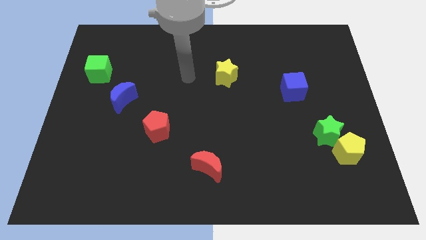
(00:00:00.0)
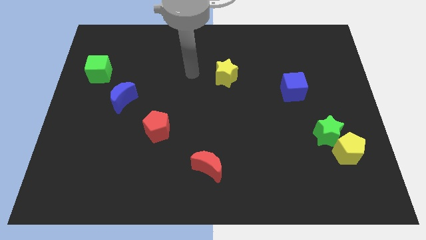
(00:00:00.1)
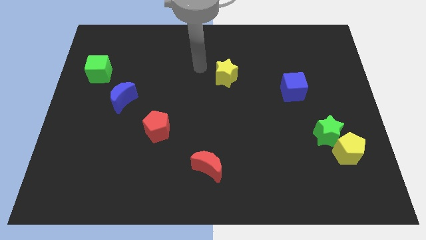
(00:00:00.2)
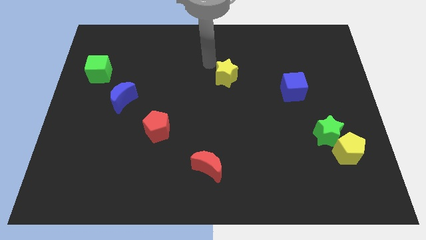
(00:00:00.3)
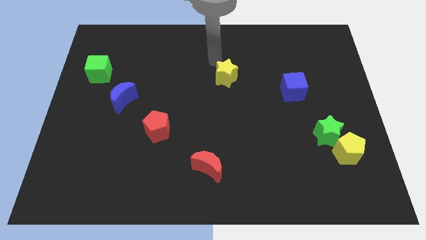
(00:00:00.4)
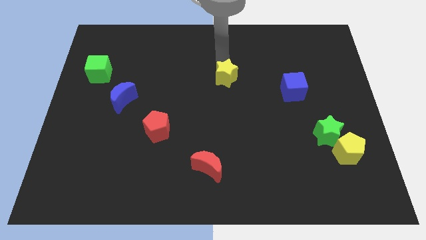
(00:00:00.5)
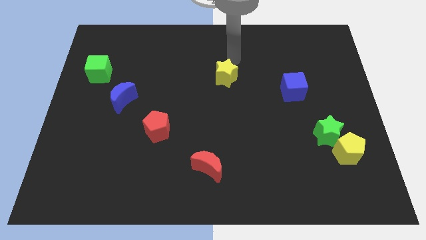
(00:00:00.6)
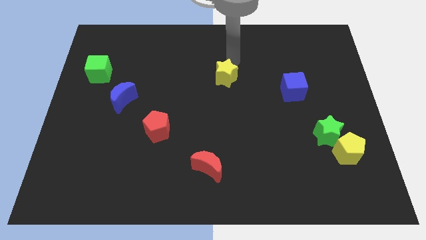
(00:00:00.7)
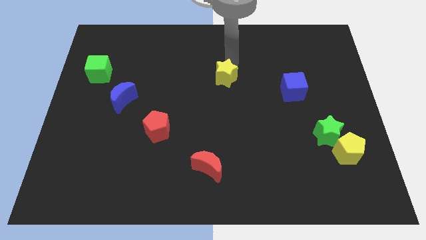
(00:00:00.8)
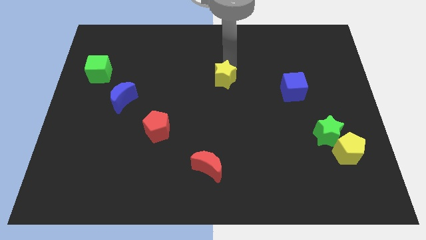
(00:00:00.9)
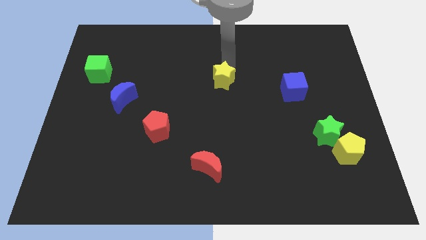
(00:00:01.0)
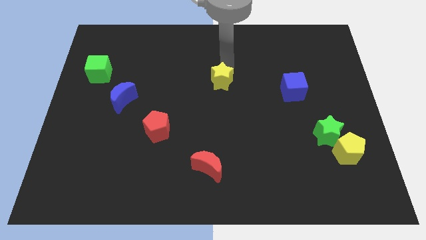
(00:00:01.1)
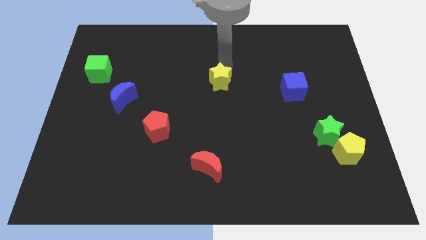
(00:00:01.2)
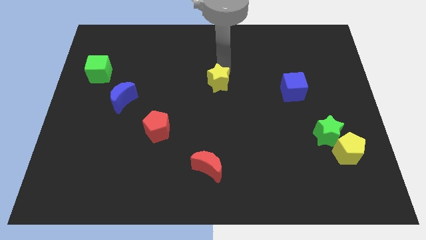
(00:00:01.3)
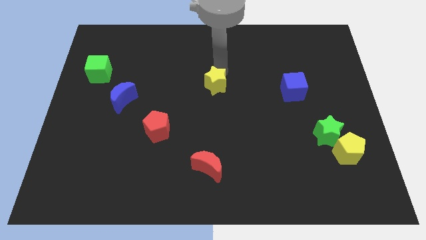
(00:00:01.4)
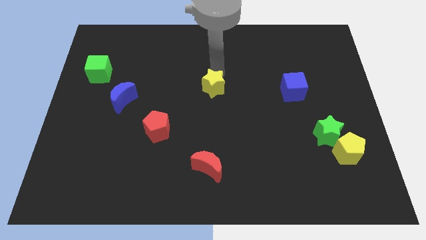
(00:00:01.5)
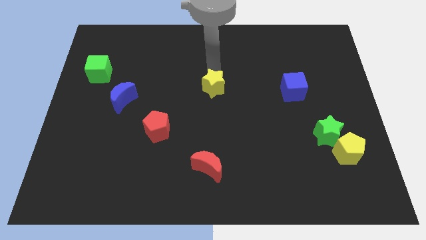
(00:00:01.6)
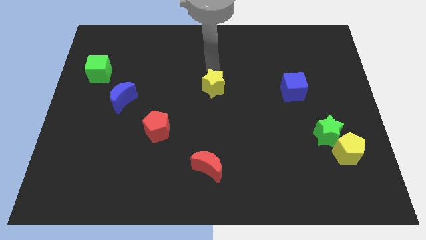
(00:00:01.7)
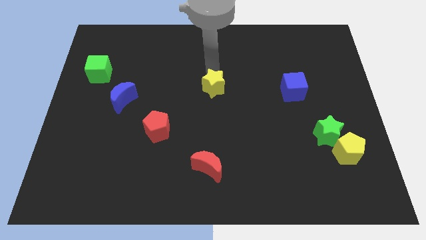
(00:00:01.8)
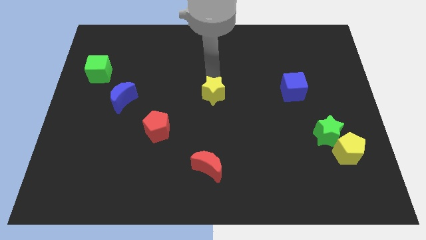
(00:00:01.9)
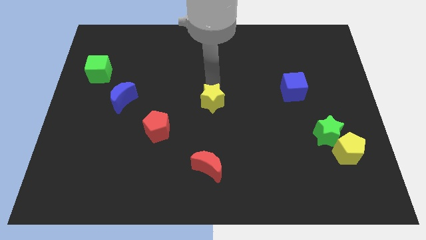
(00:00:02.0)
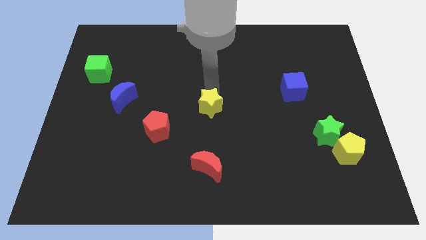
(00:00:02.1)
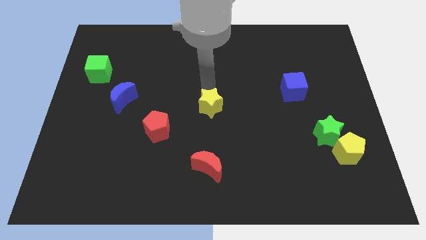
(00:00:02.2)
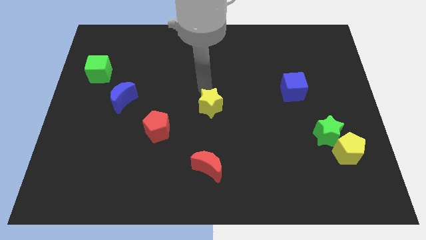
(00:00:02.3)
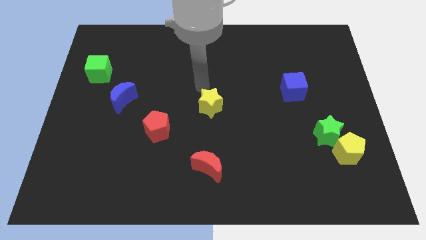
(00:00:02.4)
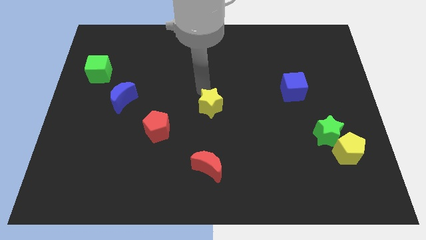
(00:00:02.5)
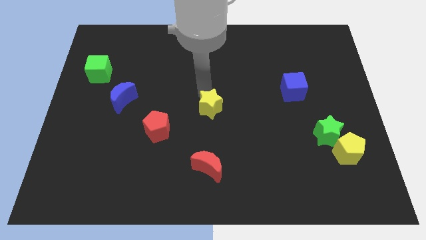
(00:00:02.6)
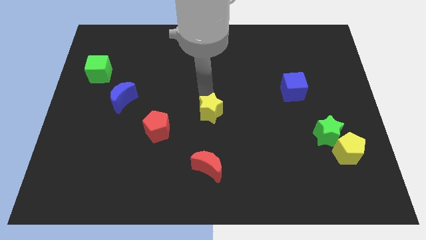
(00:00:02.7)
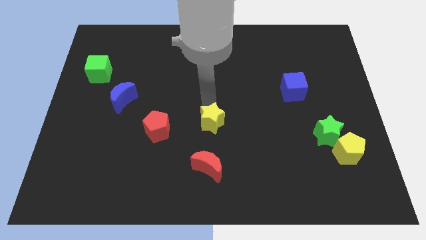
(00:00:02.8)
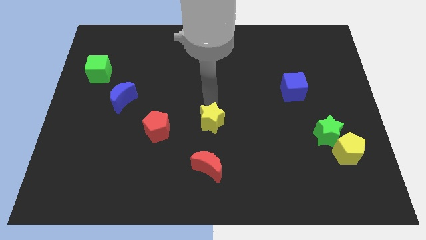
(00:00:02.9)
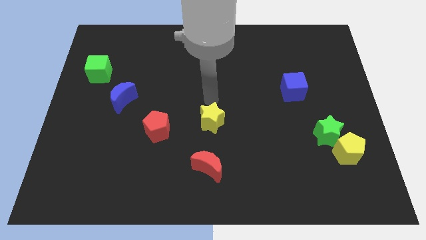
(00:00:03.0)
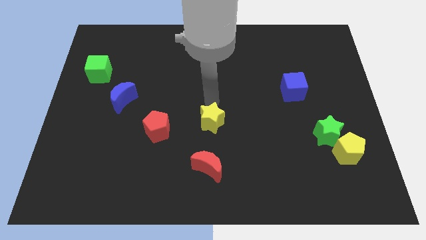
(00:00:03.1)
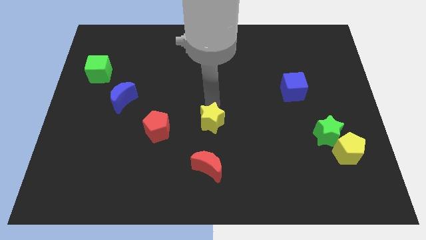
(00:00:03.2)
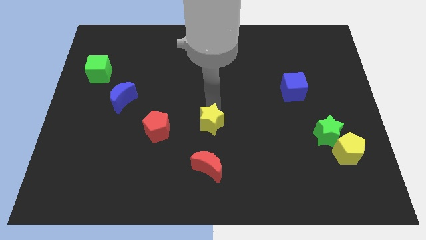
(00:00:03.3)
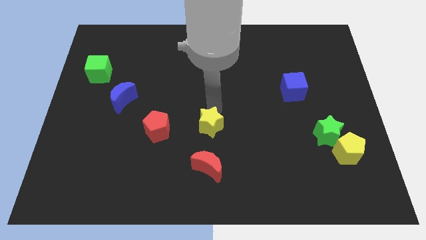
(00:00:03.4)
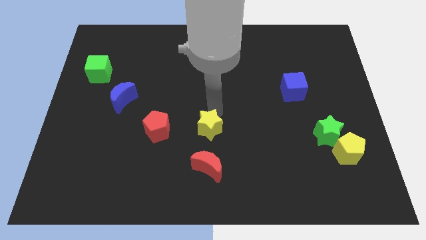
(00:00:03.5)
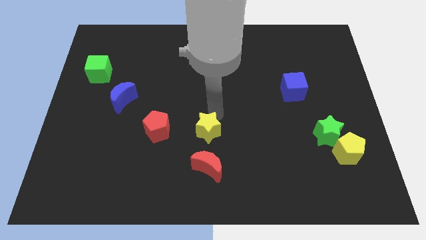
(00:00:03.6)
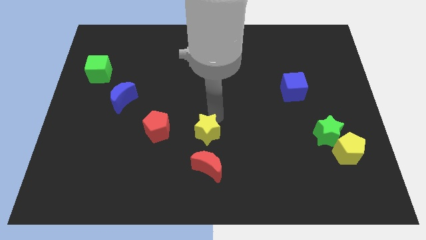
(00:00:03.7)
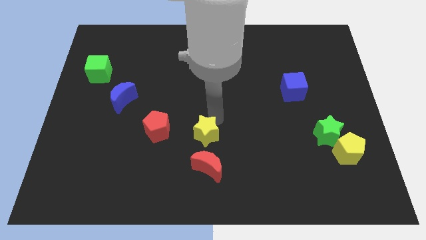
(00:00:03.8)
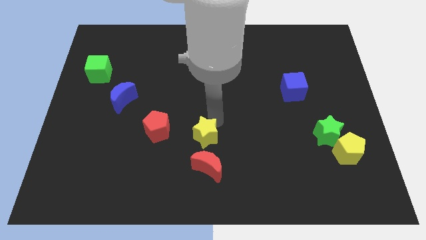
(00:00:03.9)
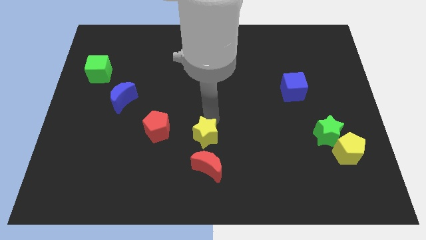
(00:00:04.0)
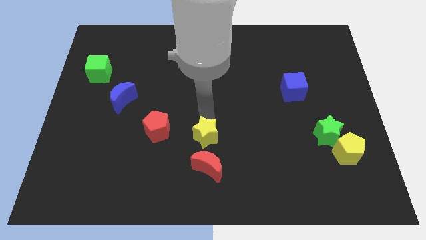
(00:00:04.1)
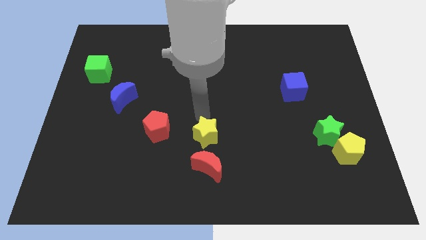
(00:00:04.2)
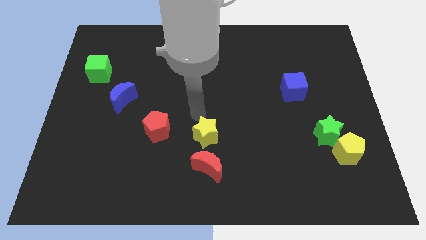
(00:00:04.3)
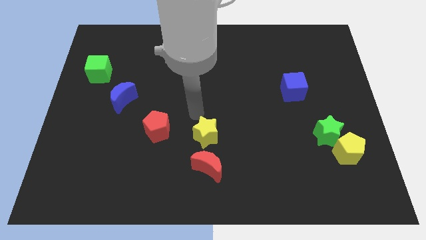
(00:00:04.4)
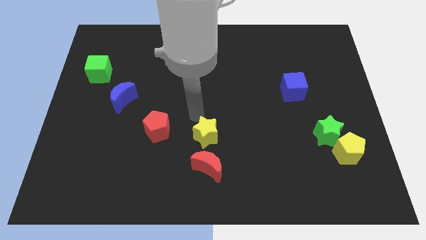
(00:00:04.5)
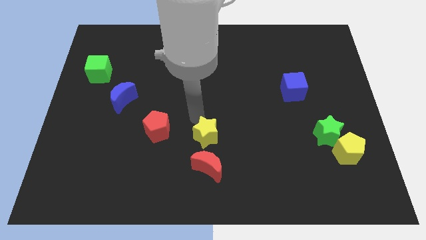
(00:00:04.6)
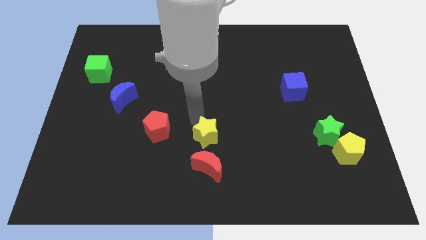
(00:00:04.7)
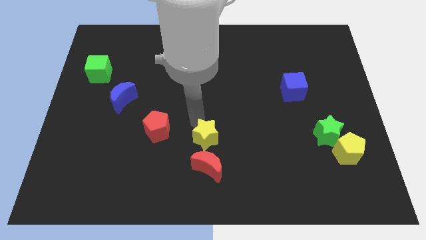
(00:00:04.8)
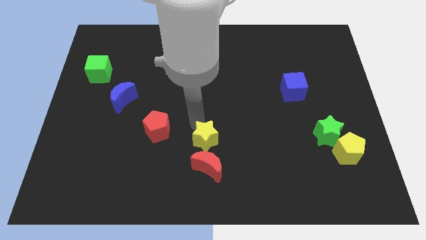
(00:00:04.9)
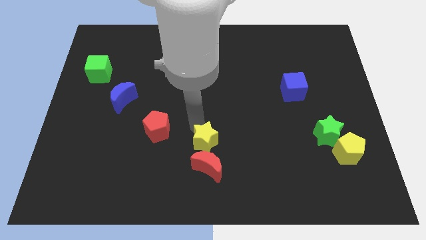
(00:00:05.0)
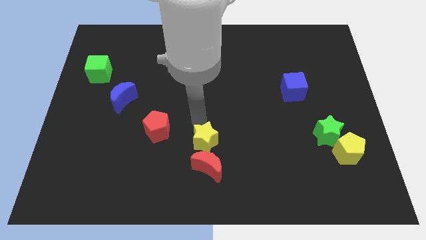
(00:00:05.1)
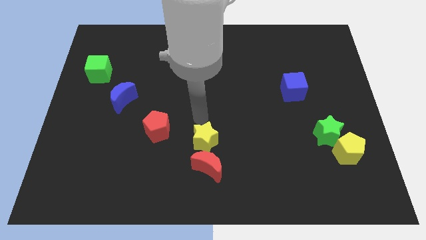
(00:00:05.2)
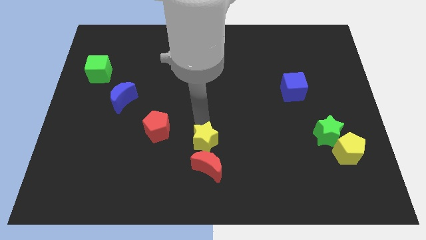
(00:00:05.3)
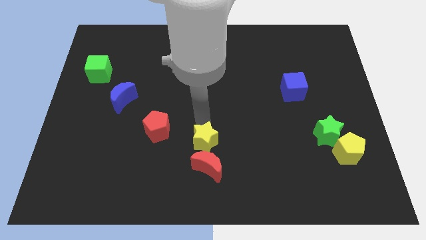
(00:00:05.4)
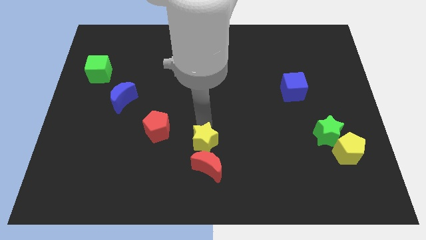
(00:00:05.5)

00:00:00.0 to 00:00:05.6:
put the yellow star towards the red moon

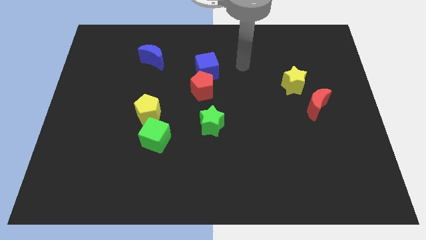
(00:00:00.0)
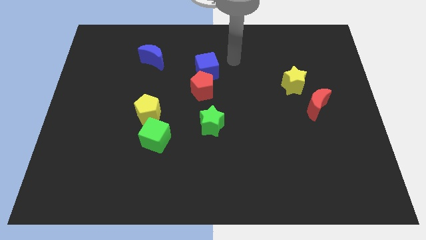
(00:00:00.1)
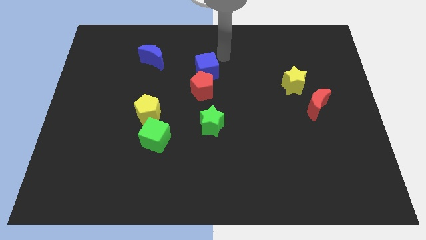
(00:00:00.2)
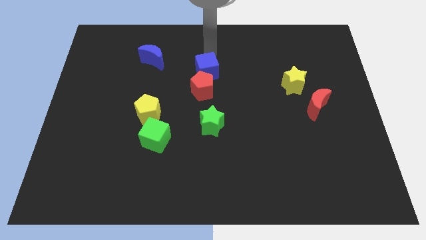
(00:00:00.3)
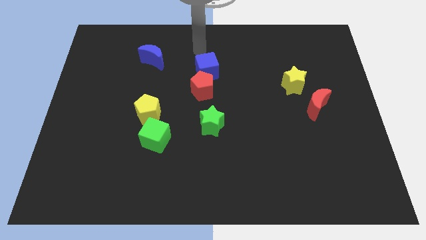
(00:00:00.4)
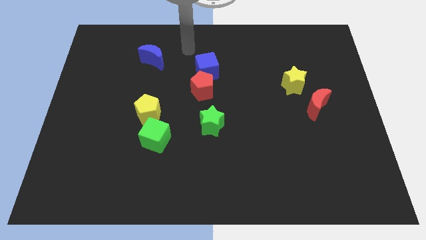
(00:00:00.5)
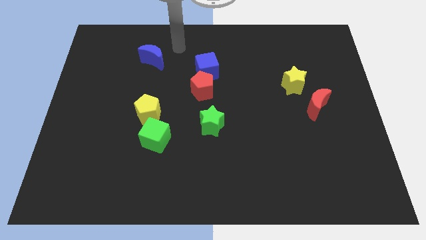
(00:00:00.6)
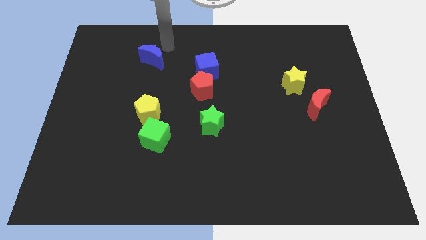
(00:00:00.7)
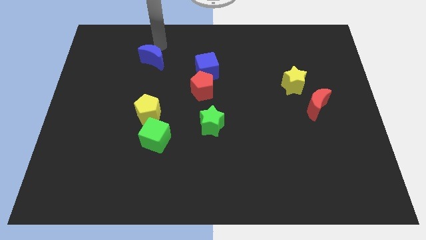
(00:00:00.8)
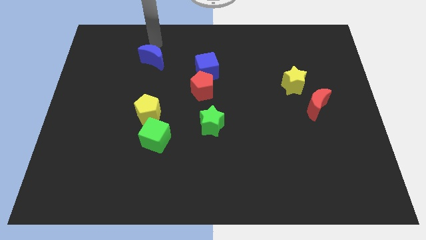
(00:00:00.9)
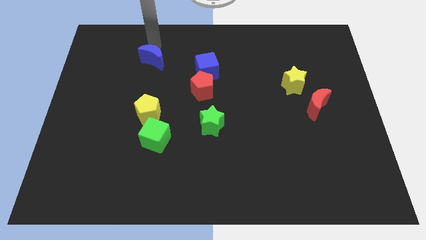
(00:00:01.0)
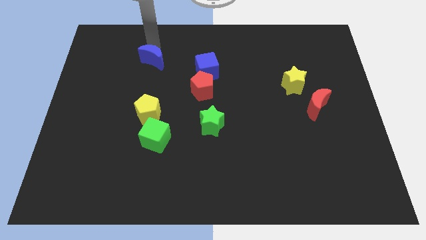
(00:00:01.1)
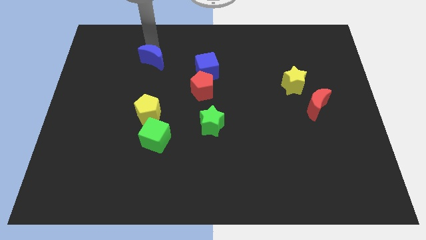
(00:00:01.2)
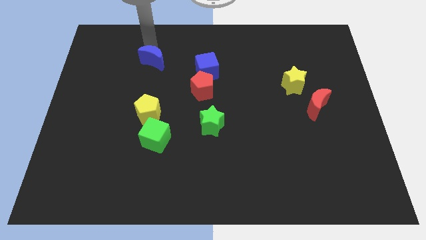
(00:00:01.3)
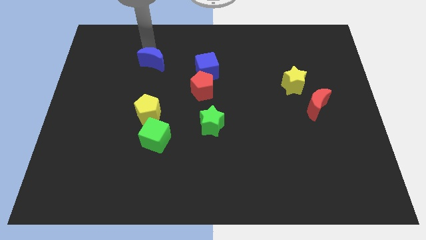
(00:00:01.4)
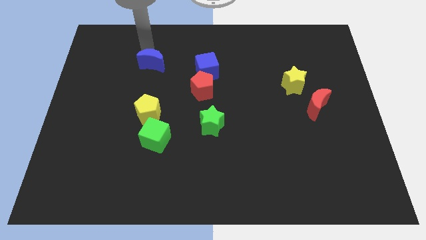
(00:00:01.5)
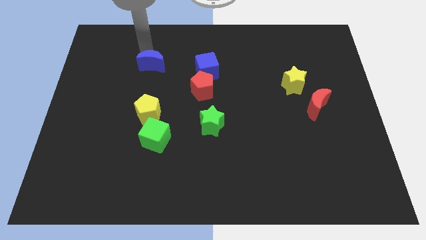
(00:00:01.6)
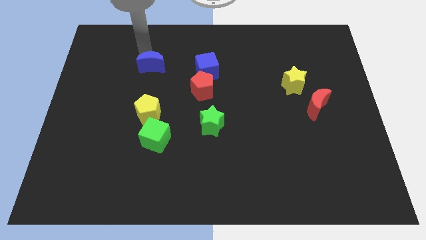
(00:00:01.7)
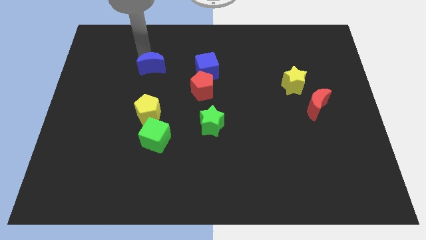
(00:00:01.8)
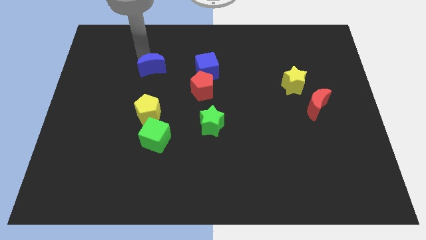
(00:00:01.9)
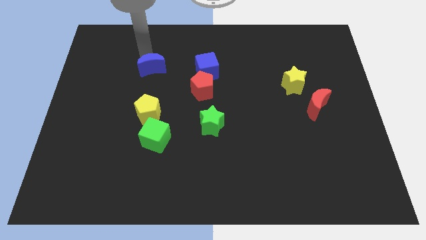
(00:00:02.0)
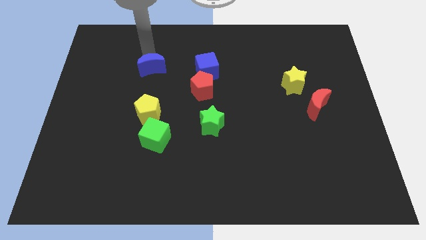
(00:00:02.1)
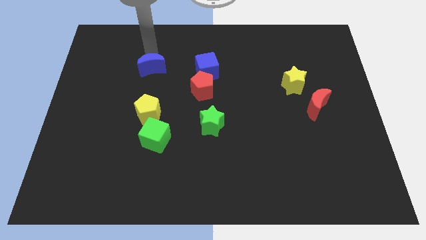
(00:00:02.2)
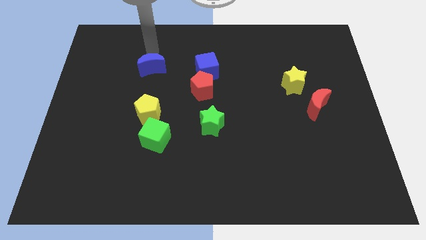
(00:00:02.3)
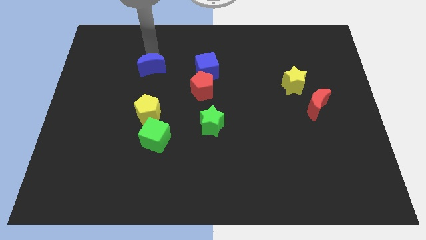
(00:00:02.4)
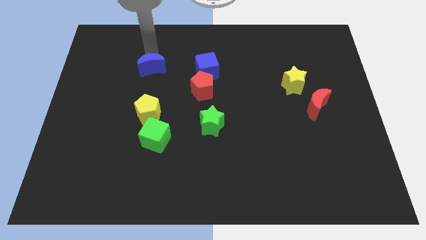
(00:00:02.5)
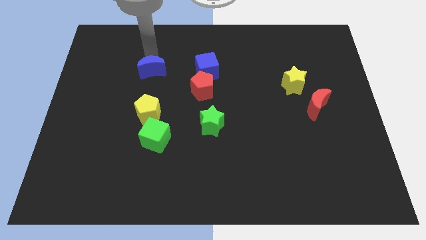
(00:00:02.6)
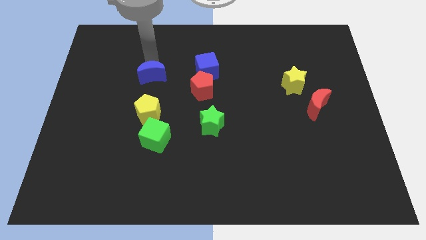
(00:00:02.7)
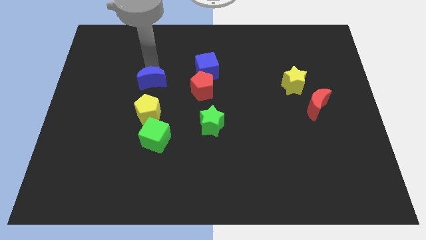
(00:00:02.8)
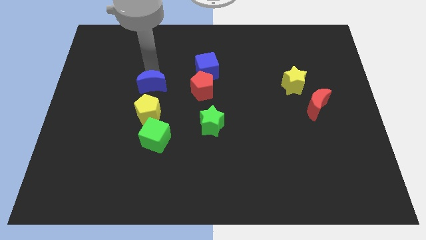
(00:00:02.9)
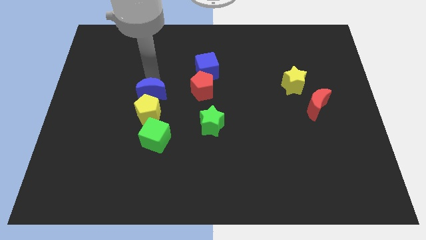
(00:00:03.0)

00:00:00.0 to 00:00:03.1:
move the blue moon towards the yellow pentagon
